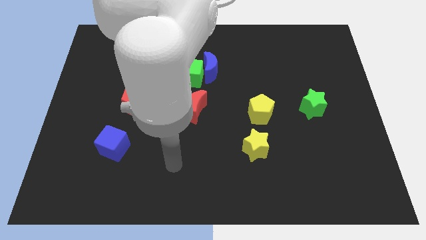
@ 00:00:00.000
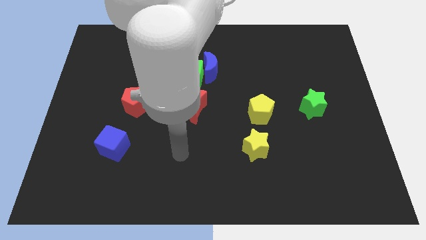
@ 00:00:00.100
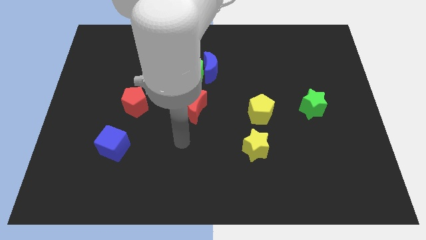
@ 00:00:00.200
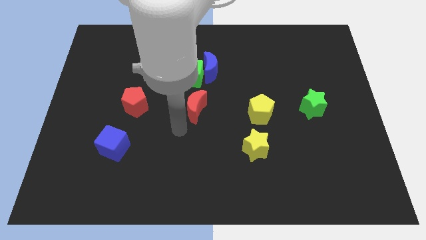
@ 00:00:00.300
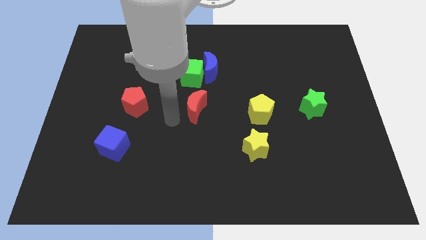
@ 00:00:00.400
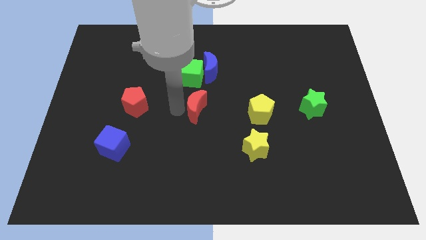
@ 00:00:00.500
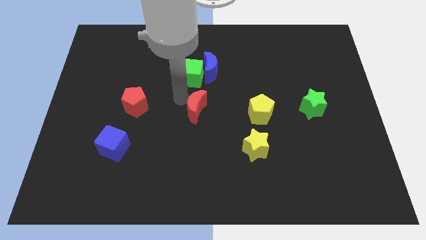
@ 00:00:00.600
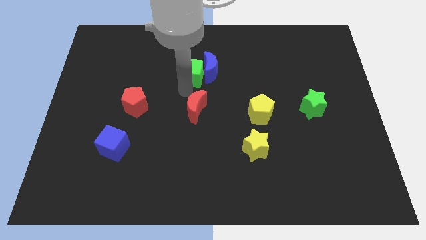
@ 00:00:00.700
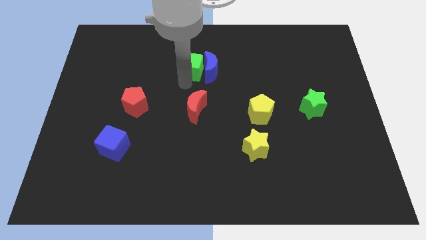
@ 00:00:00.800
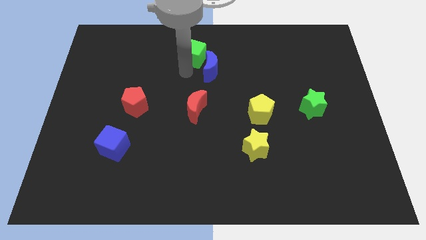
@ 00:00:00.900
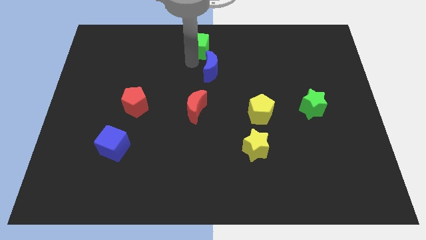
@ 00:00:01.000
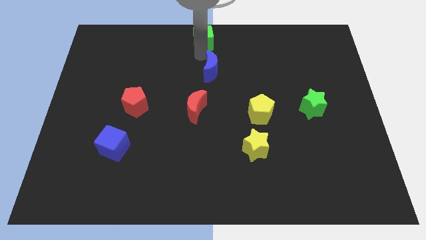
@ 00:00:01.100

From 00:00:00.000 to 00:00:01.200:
pull the blue moon apart from the green cube

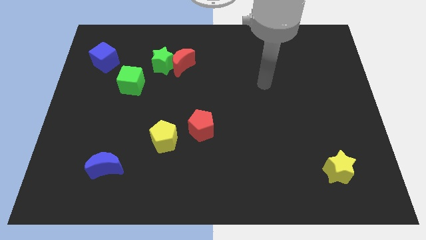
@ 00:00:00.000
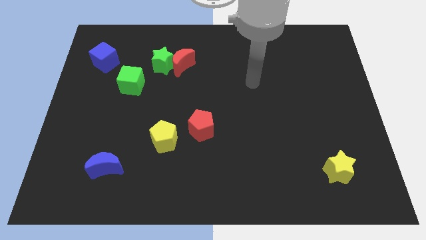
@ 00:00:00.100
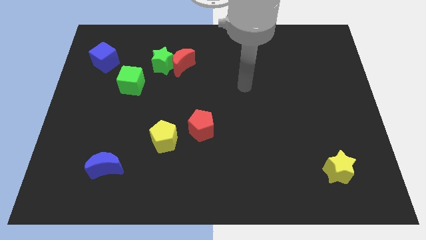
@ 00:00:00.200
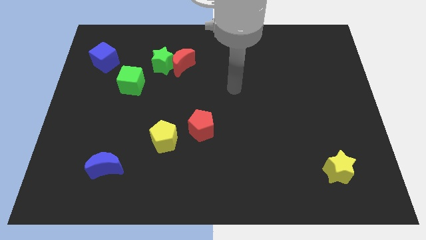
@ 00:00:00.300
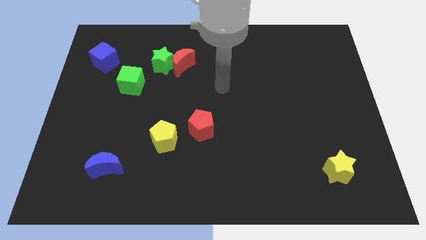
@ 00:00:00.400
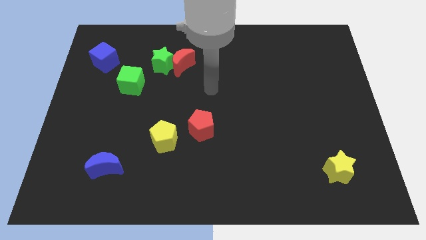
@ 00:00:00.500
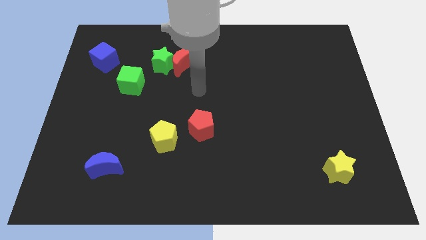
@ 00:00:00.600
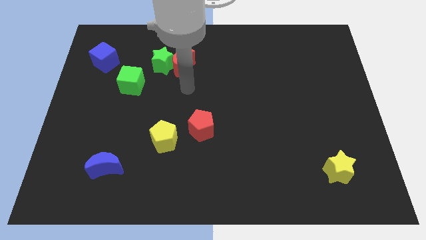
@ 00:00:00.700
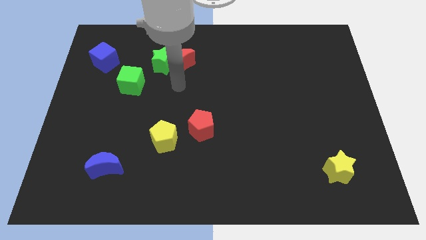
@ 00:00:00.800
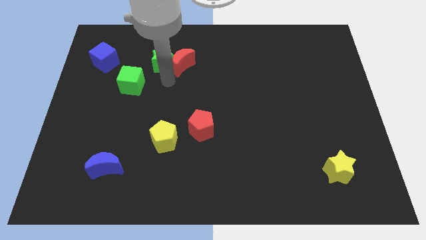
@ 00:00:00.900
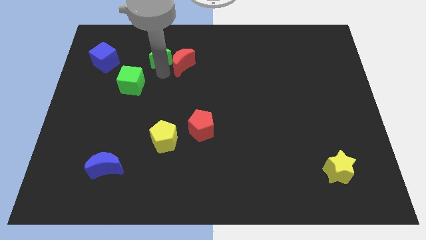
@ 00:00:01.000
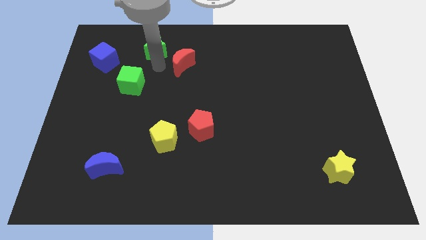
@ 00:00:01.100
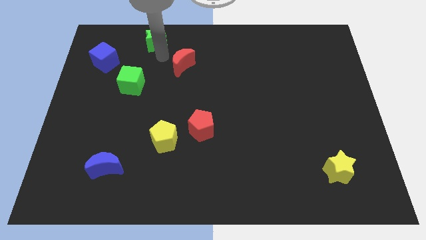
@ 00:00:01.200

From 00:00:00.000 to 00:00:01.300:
pull the red moon apart from the green star

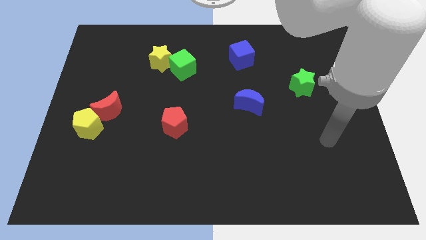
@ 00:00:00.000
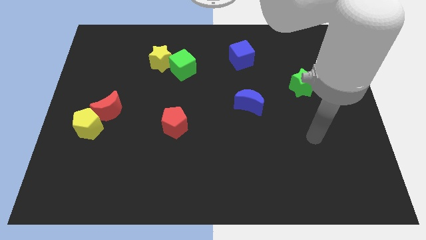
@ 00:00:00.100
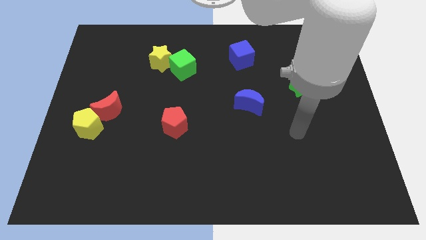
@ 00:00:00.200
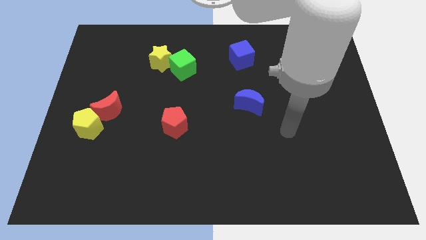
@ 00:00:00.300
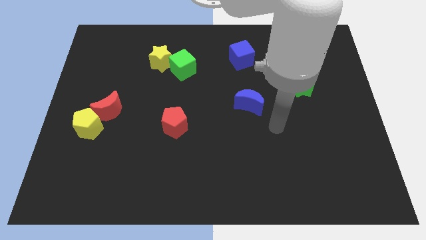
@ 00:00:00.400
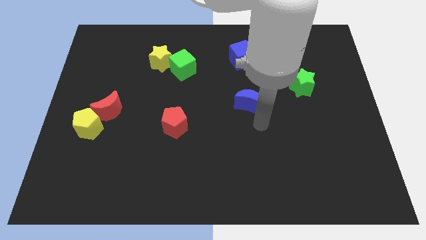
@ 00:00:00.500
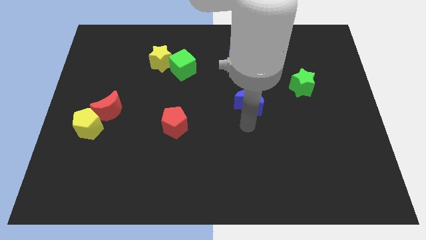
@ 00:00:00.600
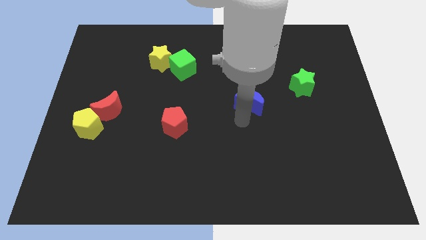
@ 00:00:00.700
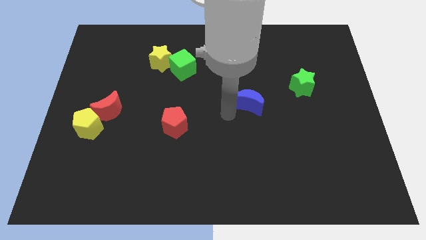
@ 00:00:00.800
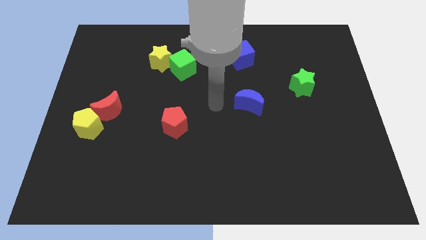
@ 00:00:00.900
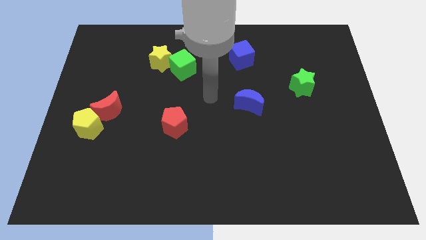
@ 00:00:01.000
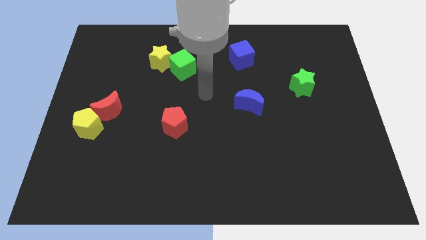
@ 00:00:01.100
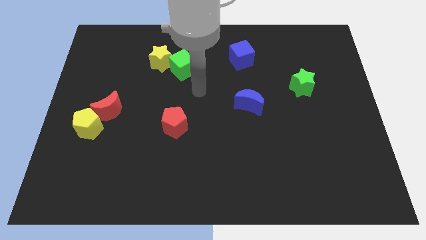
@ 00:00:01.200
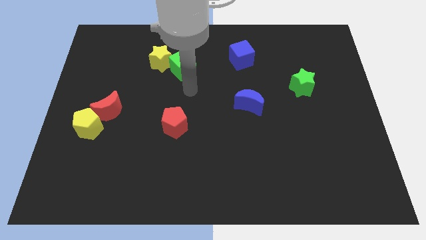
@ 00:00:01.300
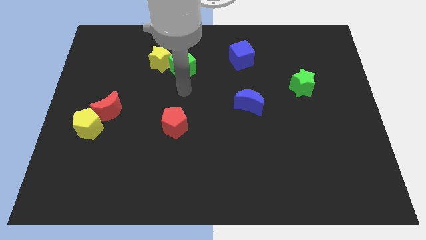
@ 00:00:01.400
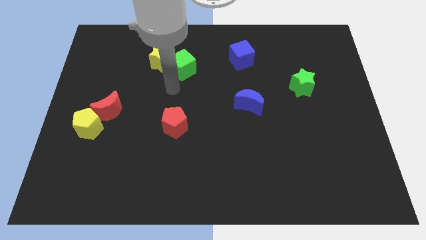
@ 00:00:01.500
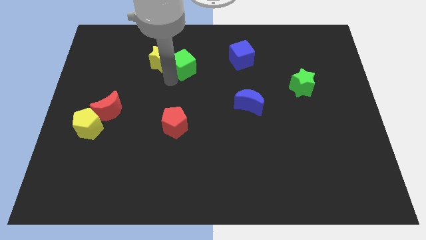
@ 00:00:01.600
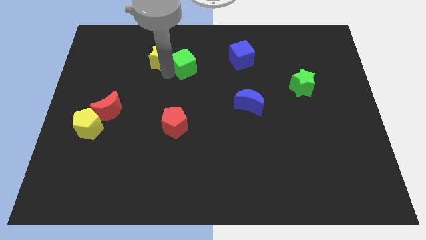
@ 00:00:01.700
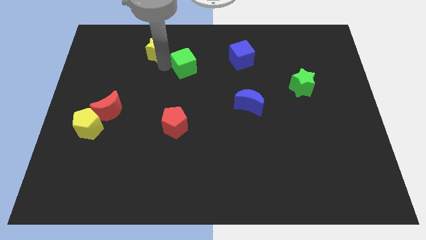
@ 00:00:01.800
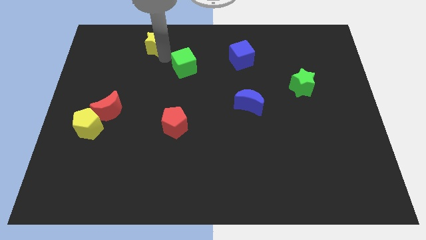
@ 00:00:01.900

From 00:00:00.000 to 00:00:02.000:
move the green cube away from the yellow star

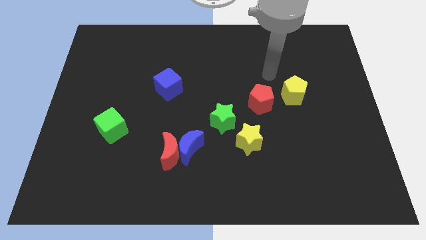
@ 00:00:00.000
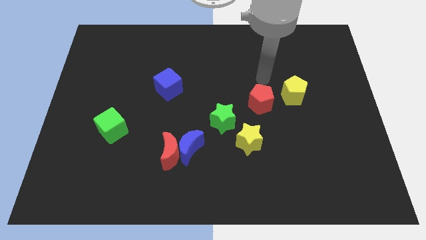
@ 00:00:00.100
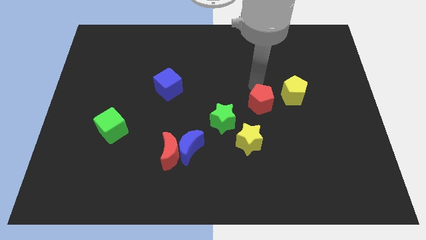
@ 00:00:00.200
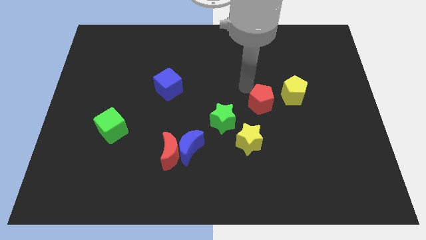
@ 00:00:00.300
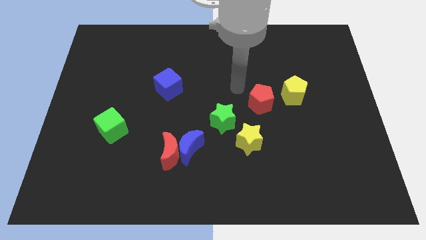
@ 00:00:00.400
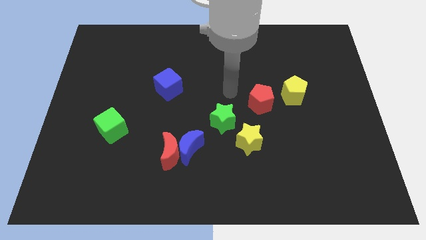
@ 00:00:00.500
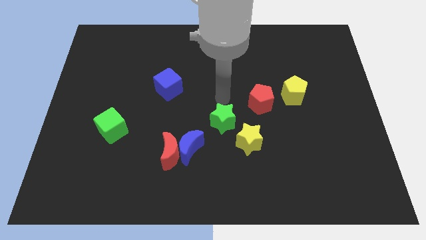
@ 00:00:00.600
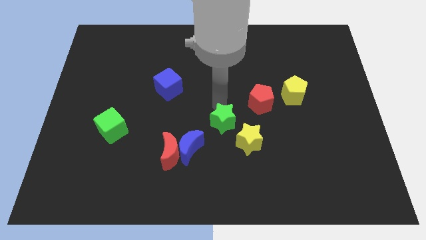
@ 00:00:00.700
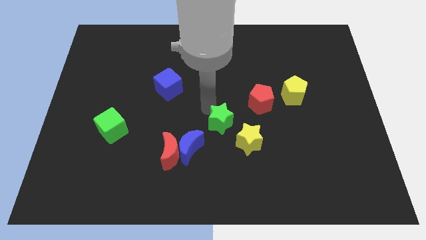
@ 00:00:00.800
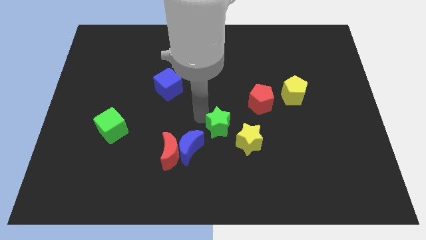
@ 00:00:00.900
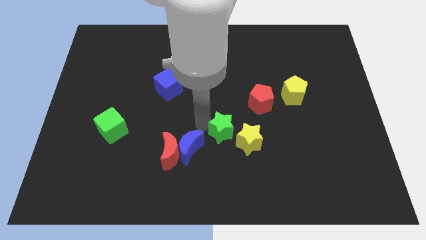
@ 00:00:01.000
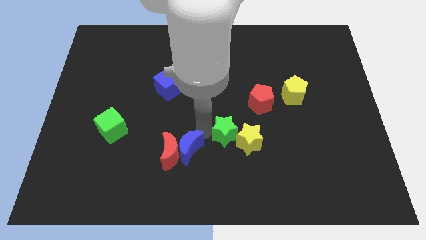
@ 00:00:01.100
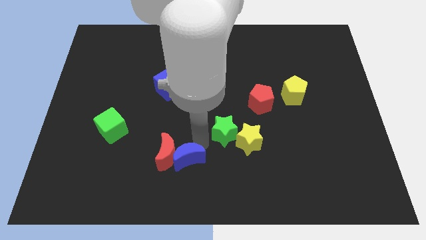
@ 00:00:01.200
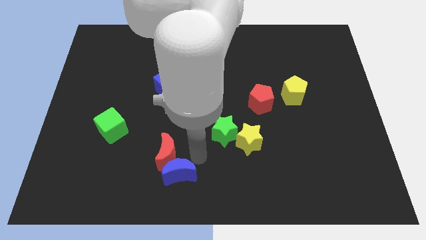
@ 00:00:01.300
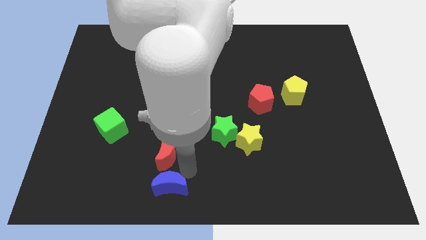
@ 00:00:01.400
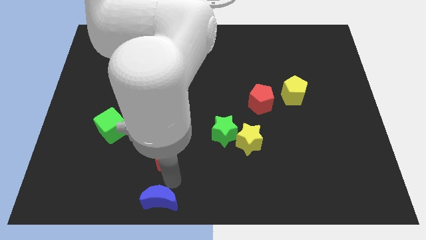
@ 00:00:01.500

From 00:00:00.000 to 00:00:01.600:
pull the red moon apart from the blue moon

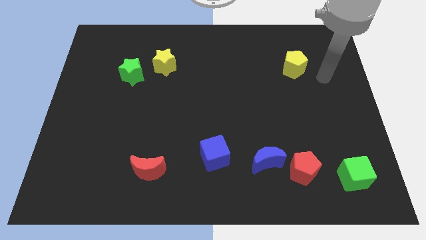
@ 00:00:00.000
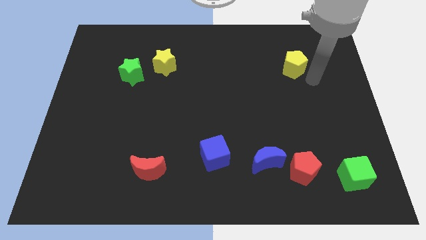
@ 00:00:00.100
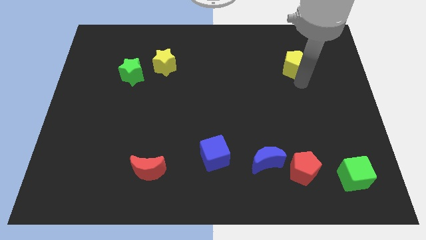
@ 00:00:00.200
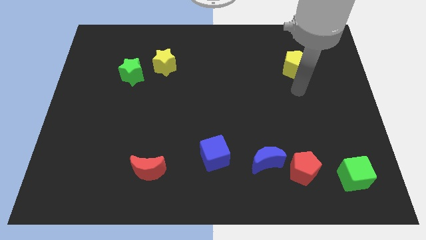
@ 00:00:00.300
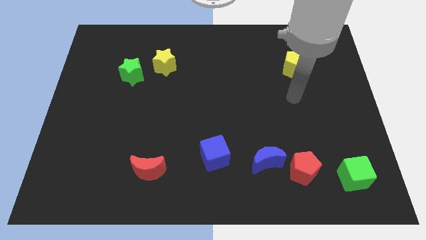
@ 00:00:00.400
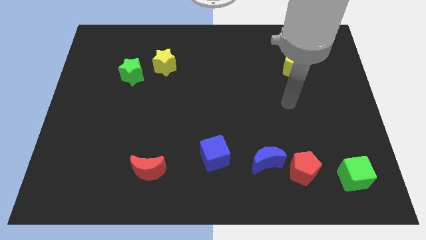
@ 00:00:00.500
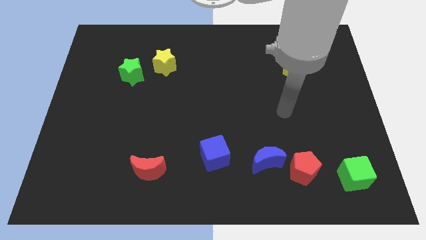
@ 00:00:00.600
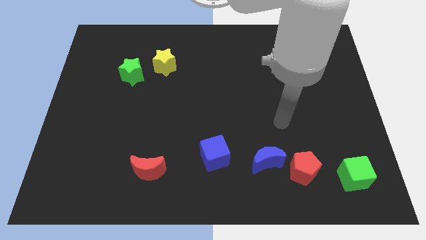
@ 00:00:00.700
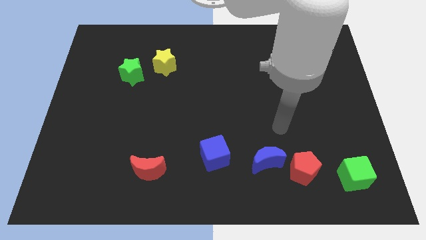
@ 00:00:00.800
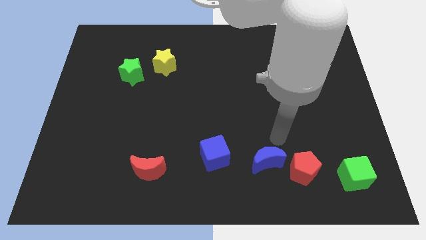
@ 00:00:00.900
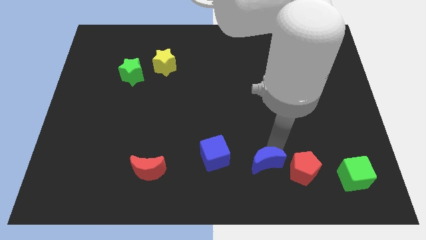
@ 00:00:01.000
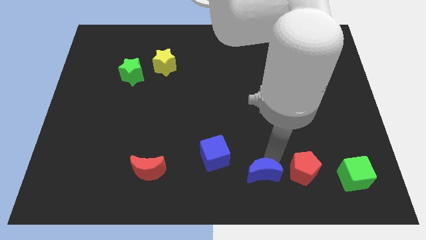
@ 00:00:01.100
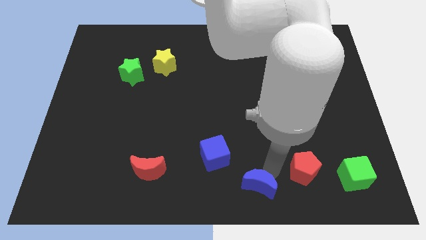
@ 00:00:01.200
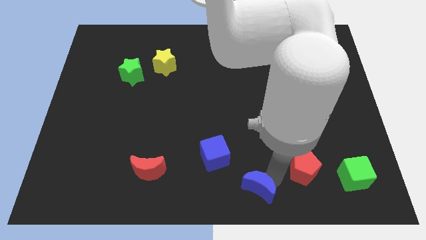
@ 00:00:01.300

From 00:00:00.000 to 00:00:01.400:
separate the red pentagon from the blue moon

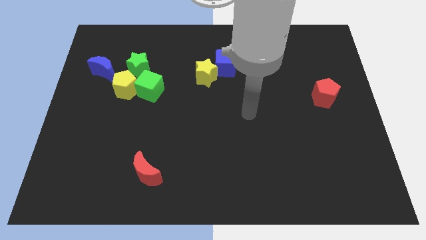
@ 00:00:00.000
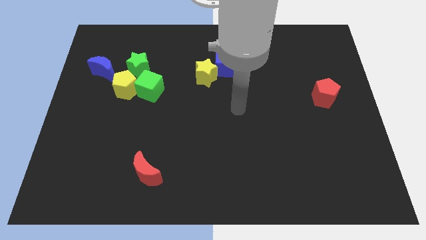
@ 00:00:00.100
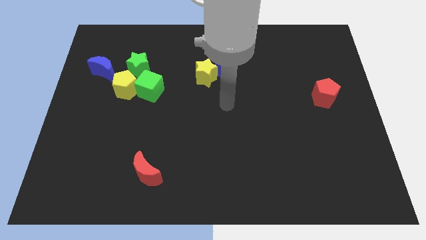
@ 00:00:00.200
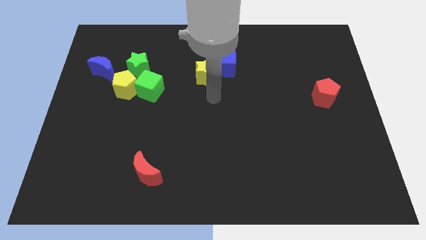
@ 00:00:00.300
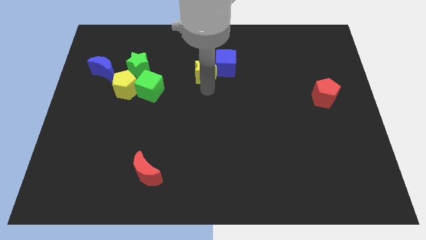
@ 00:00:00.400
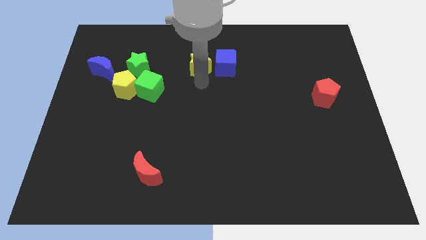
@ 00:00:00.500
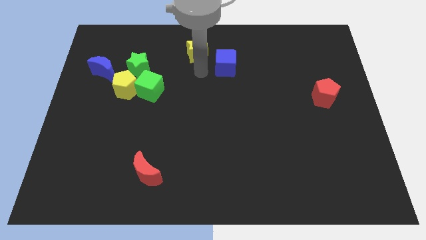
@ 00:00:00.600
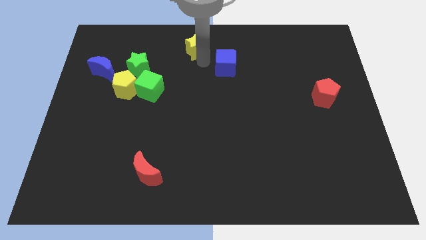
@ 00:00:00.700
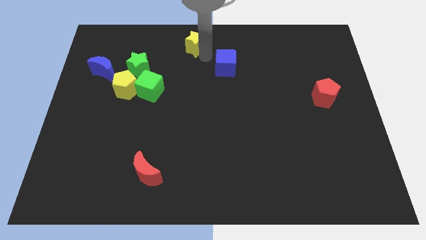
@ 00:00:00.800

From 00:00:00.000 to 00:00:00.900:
pull the blue cube apart from the yellow star

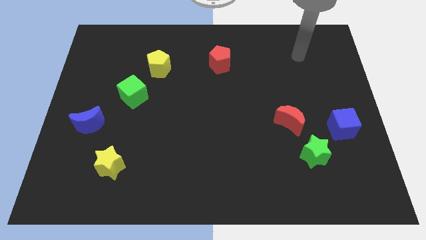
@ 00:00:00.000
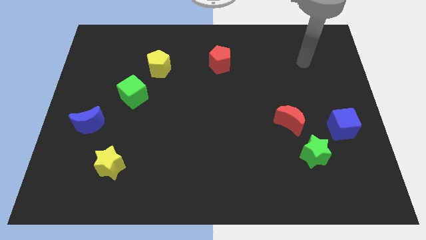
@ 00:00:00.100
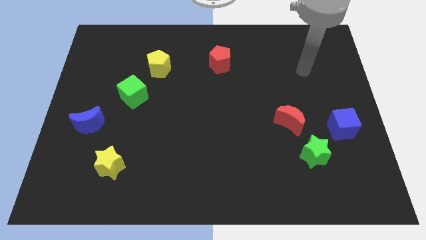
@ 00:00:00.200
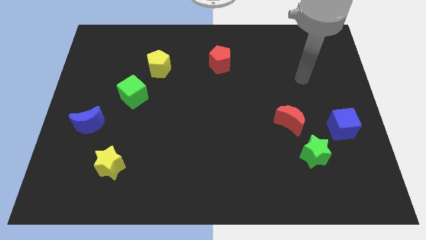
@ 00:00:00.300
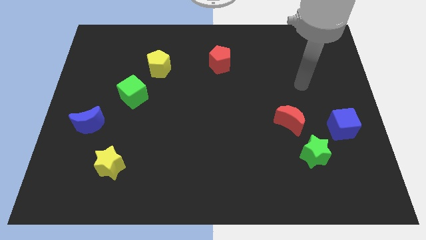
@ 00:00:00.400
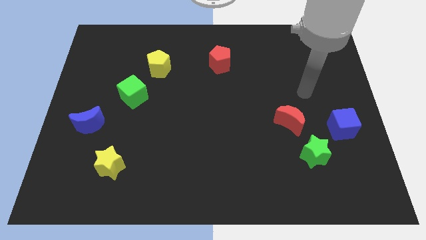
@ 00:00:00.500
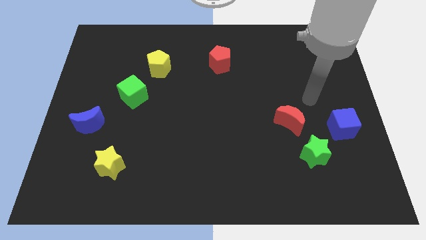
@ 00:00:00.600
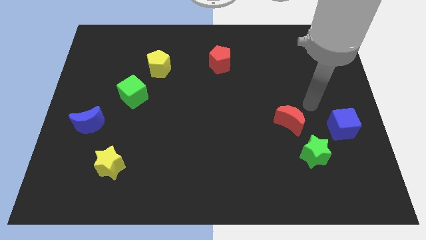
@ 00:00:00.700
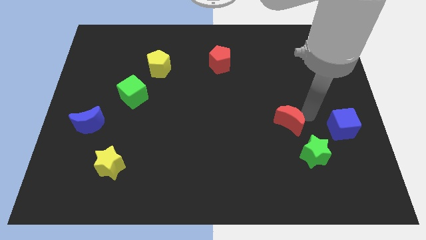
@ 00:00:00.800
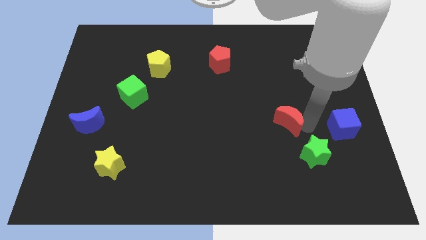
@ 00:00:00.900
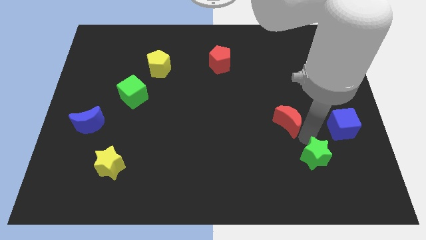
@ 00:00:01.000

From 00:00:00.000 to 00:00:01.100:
separate the red moon from the green star
